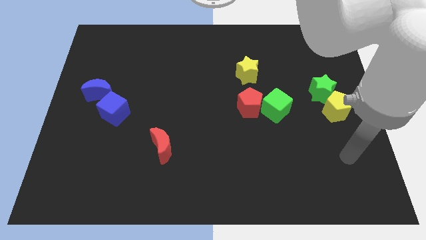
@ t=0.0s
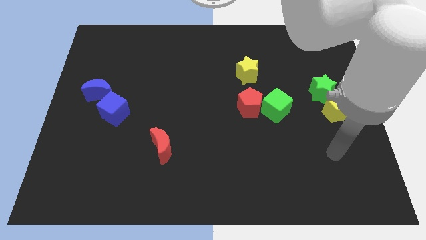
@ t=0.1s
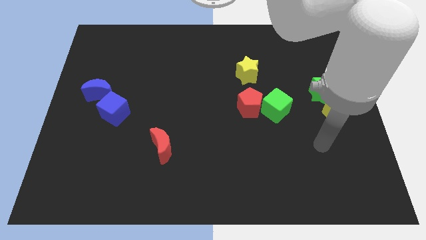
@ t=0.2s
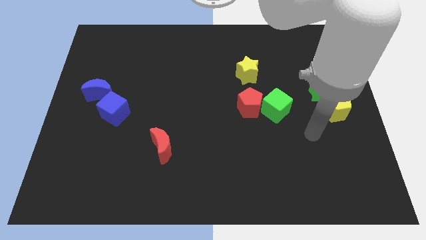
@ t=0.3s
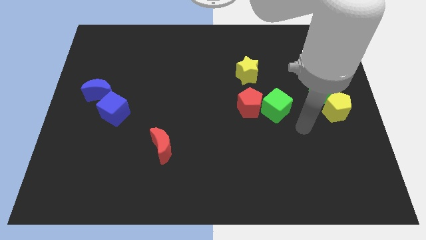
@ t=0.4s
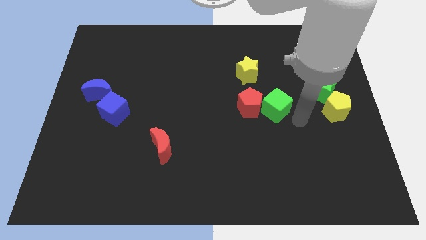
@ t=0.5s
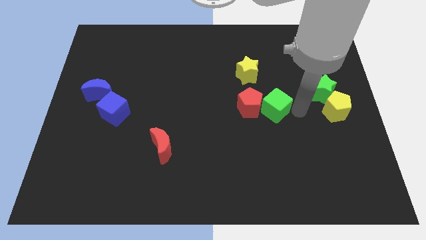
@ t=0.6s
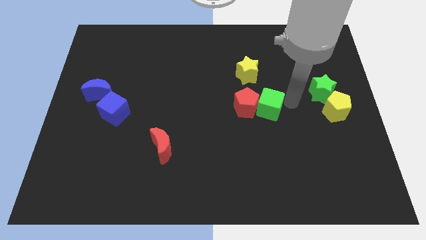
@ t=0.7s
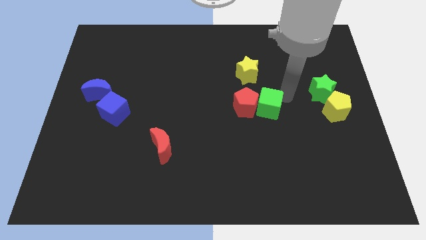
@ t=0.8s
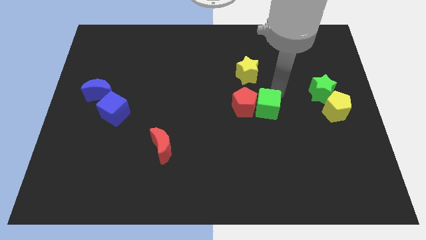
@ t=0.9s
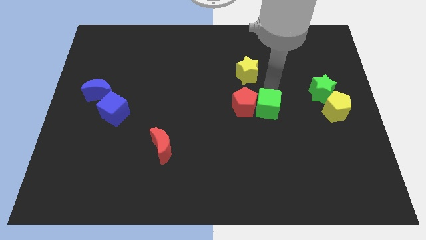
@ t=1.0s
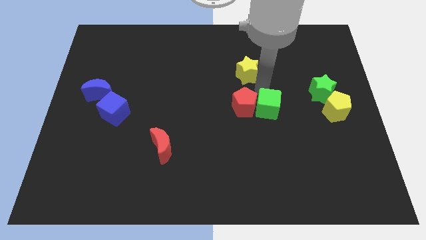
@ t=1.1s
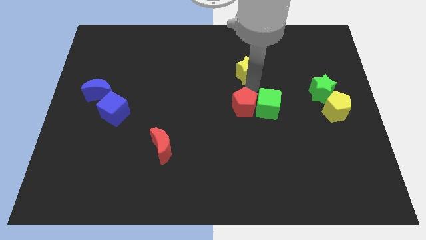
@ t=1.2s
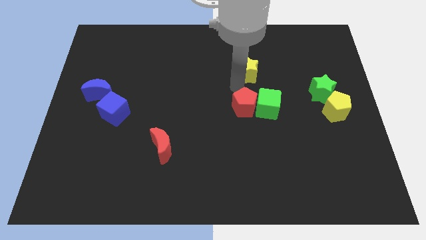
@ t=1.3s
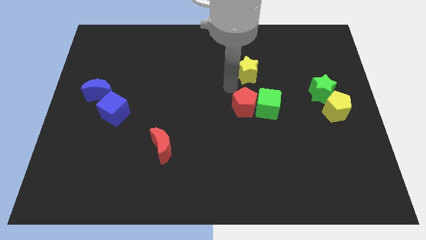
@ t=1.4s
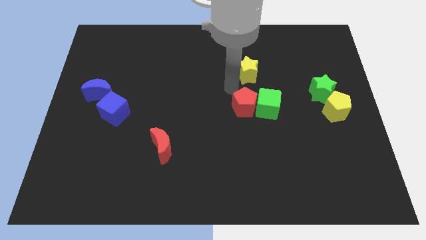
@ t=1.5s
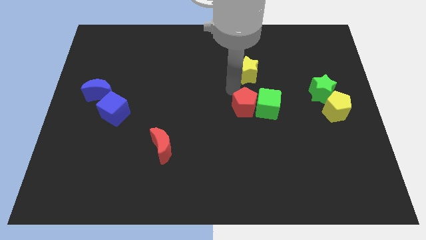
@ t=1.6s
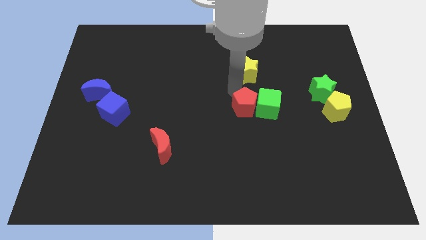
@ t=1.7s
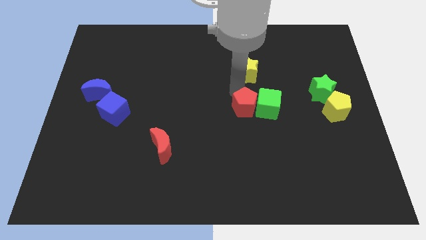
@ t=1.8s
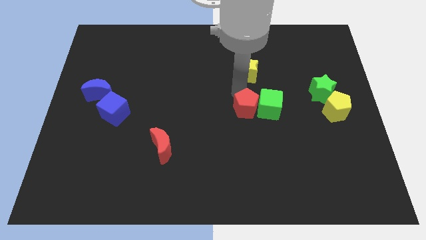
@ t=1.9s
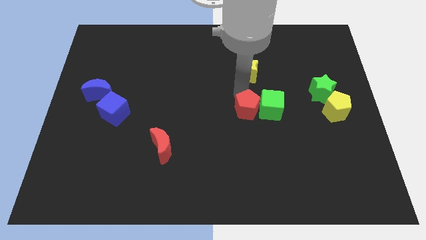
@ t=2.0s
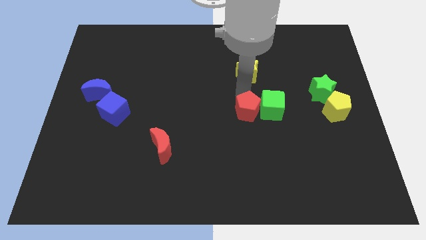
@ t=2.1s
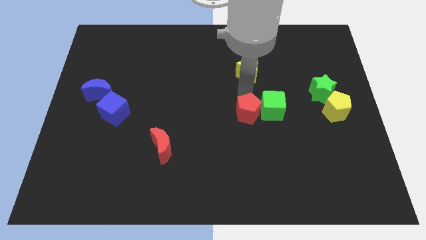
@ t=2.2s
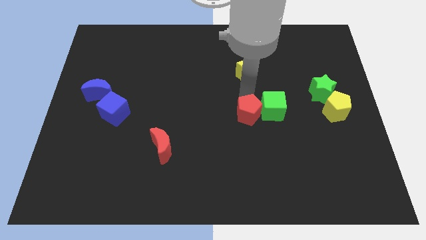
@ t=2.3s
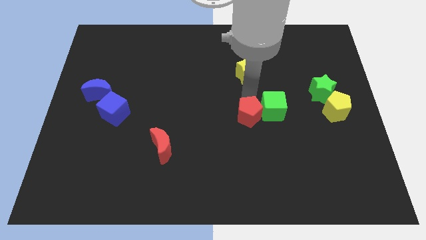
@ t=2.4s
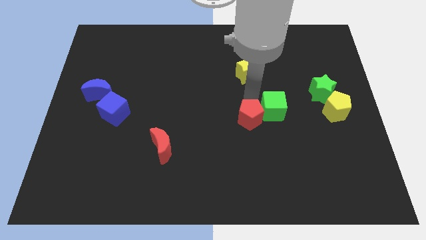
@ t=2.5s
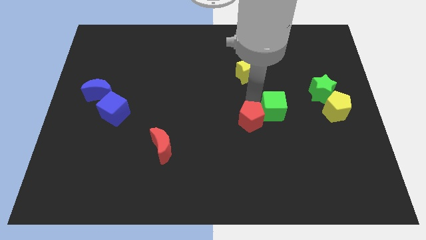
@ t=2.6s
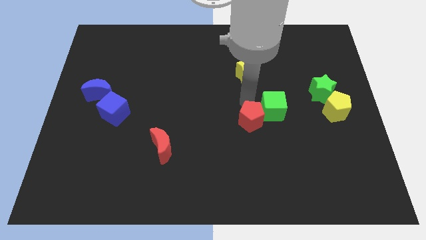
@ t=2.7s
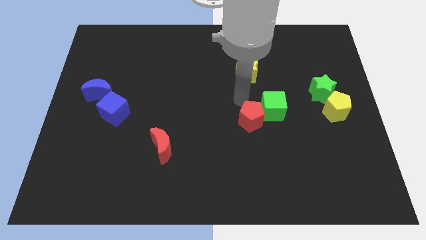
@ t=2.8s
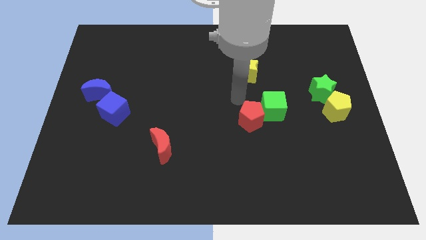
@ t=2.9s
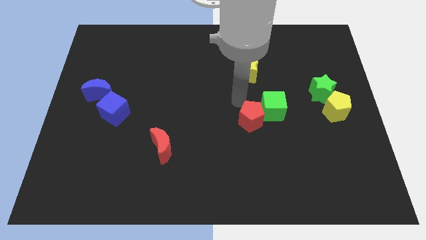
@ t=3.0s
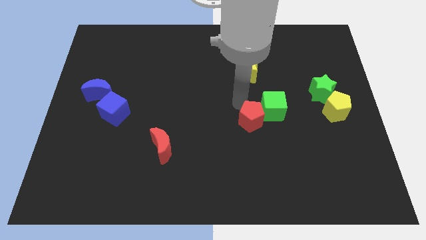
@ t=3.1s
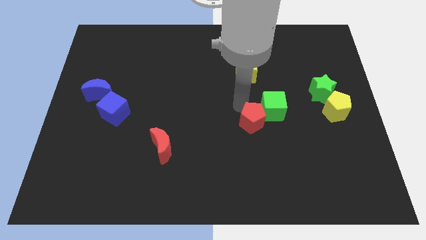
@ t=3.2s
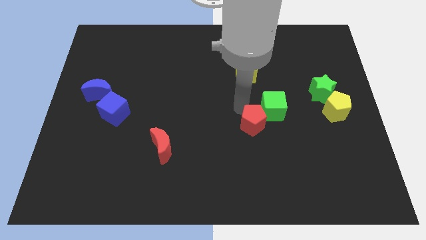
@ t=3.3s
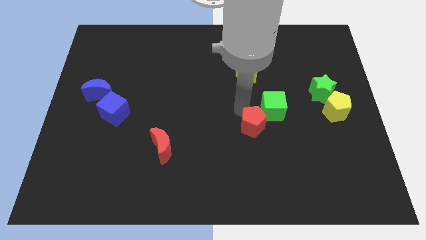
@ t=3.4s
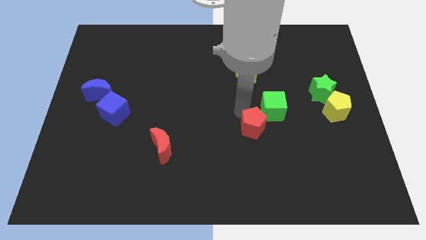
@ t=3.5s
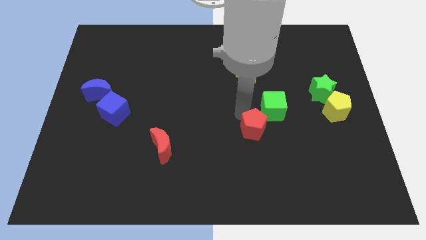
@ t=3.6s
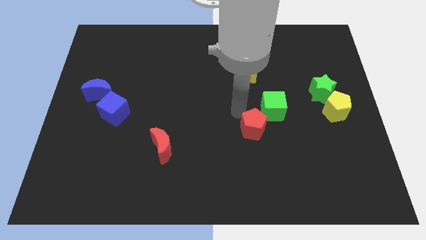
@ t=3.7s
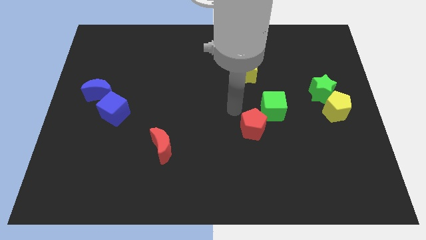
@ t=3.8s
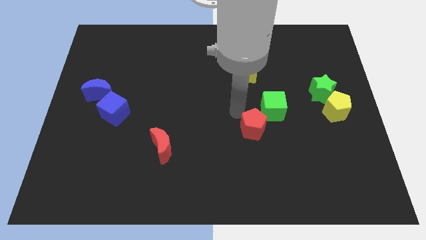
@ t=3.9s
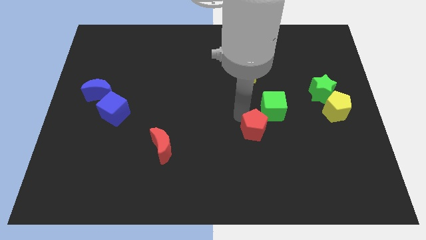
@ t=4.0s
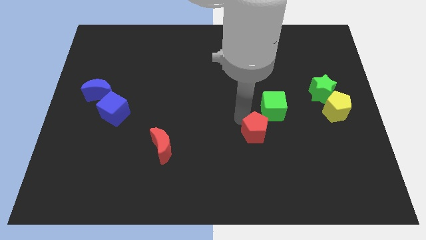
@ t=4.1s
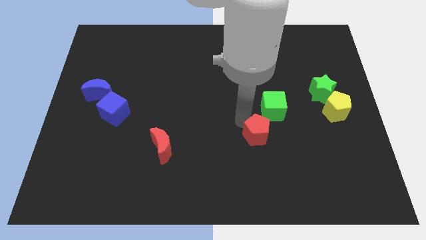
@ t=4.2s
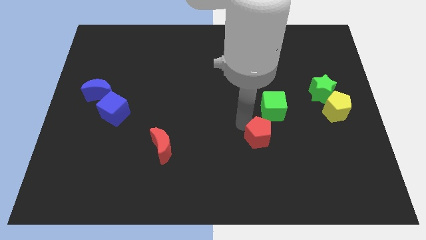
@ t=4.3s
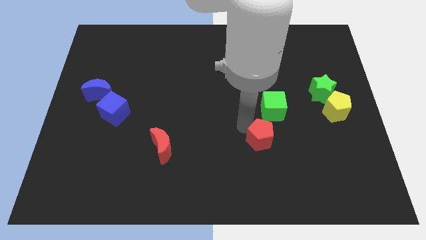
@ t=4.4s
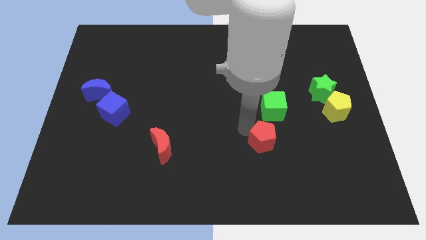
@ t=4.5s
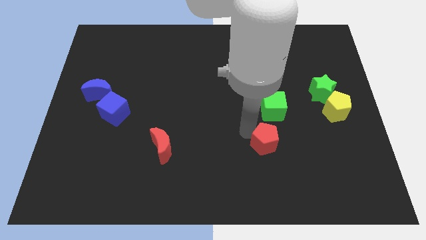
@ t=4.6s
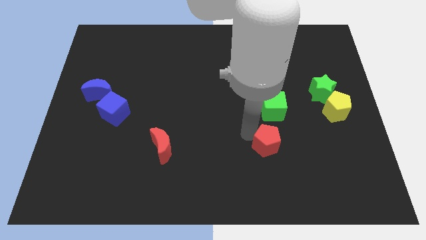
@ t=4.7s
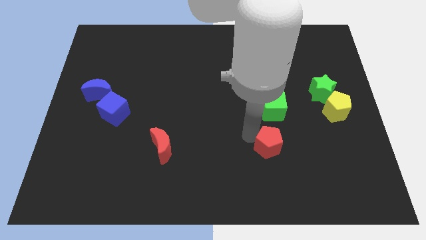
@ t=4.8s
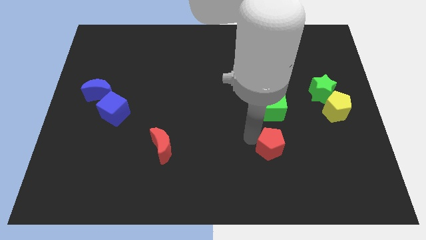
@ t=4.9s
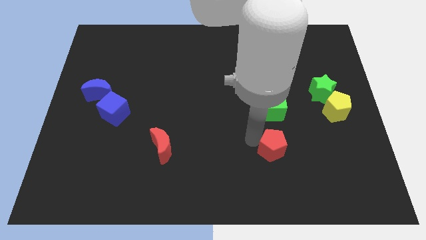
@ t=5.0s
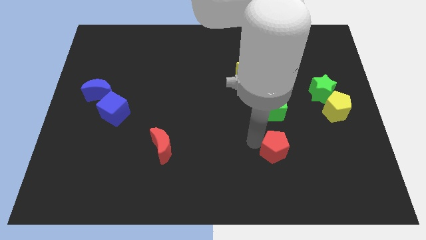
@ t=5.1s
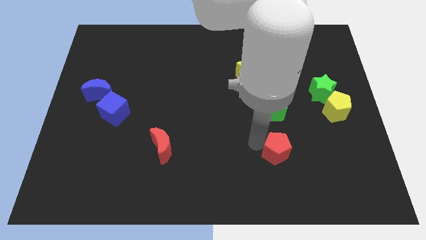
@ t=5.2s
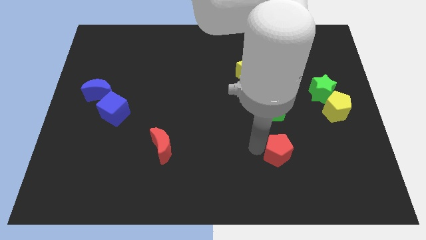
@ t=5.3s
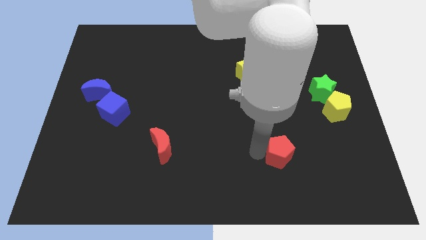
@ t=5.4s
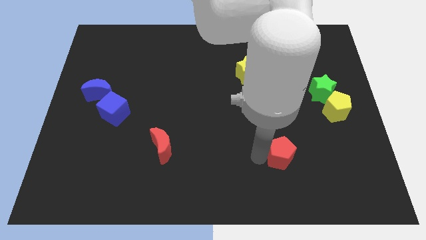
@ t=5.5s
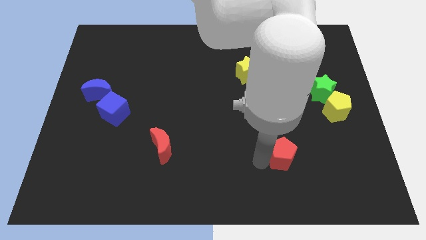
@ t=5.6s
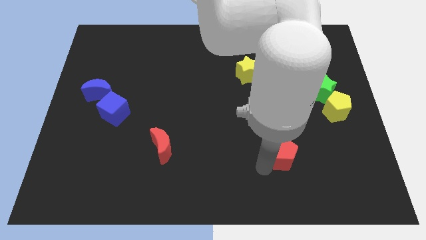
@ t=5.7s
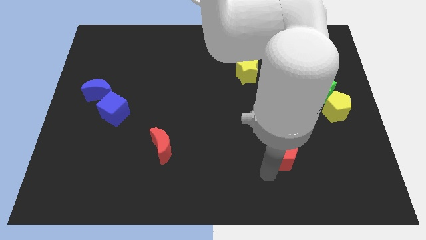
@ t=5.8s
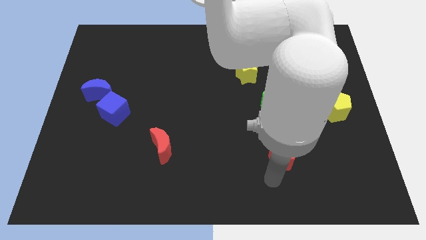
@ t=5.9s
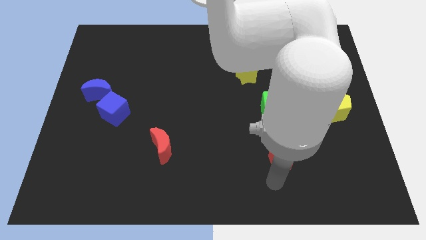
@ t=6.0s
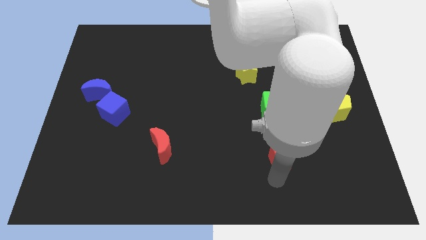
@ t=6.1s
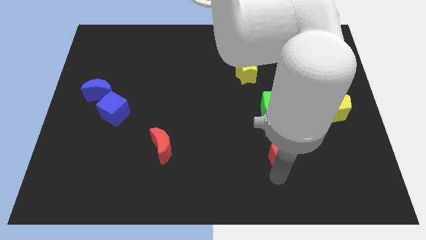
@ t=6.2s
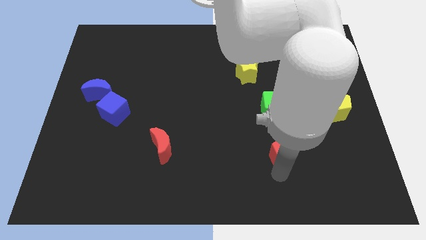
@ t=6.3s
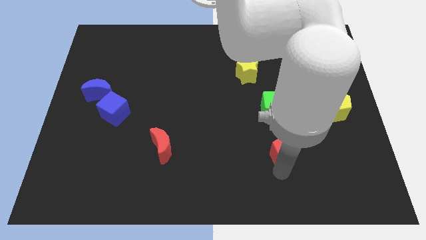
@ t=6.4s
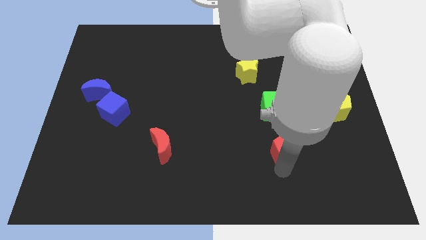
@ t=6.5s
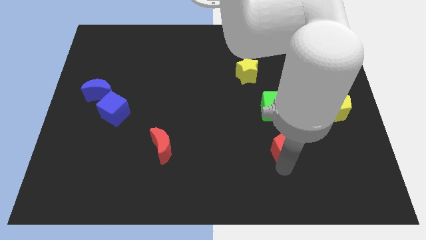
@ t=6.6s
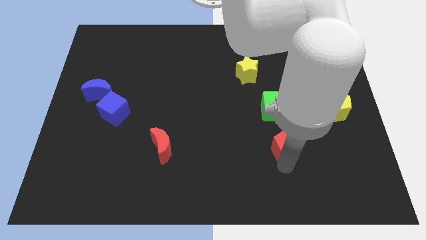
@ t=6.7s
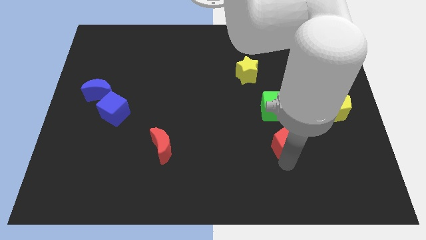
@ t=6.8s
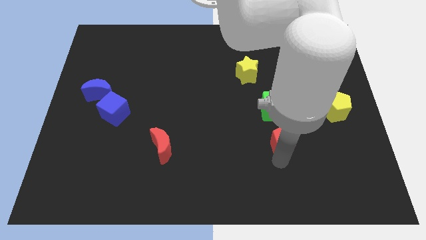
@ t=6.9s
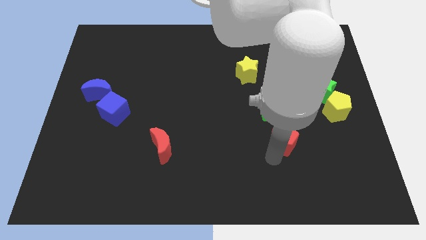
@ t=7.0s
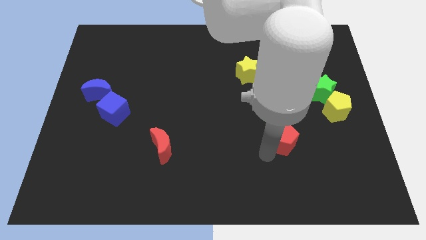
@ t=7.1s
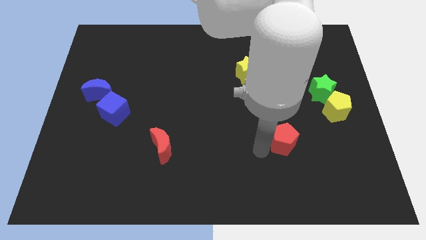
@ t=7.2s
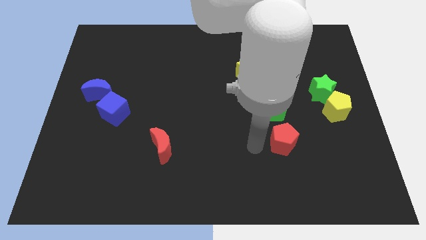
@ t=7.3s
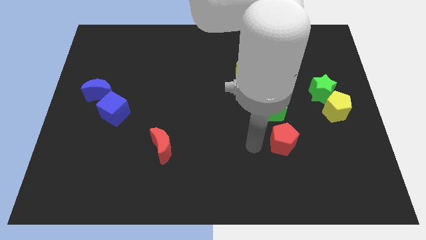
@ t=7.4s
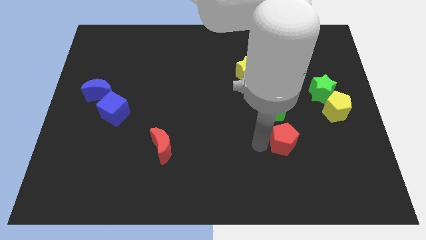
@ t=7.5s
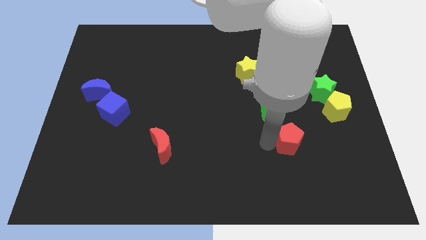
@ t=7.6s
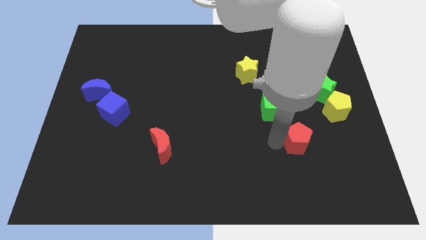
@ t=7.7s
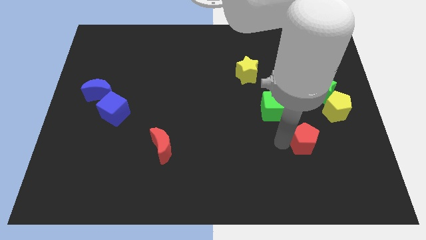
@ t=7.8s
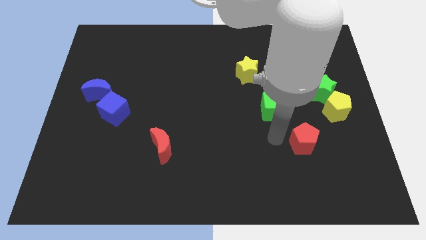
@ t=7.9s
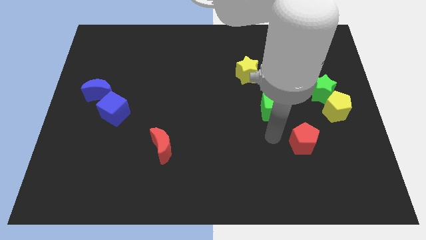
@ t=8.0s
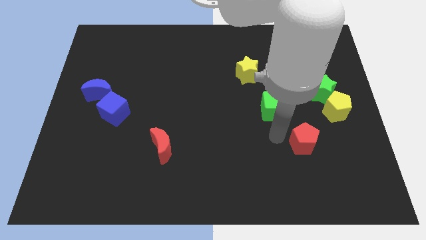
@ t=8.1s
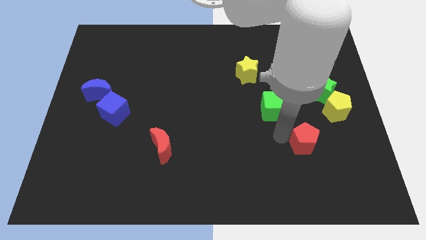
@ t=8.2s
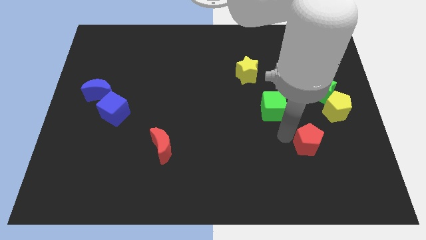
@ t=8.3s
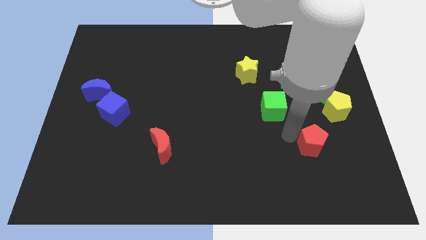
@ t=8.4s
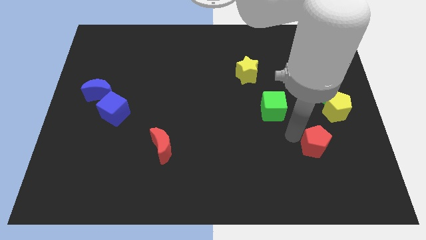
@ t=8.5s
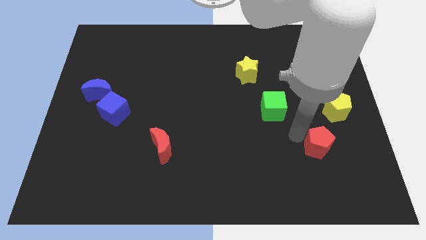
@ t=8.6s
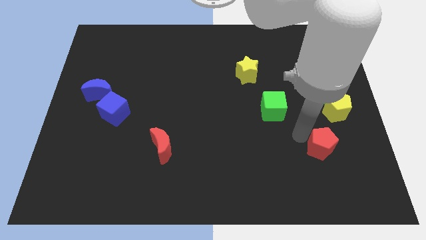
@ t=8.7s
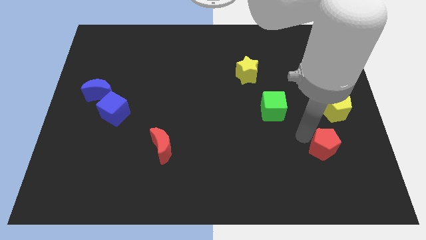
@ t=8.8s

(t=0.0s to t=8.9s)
move the red pentagon to the bottom of the yellow pentagon
